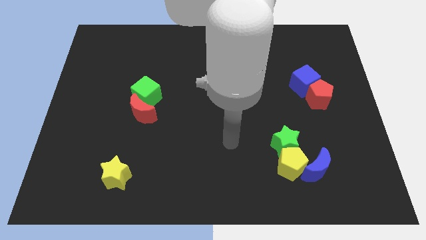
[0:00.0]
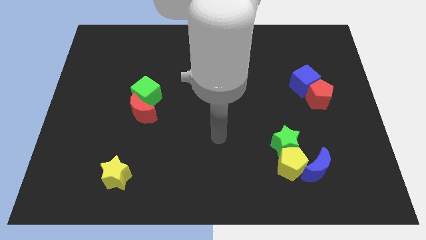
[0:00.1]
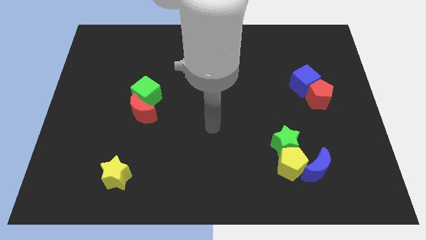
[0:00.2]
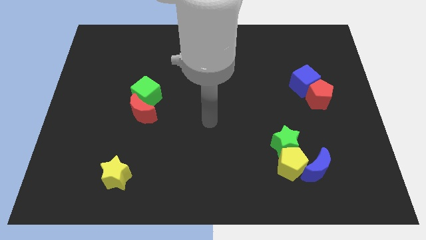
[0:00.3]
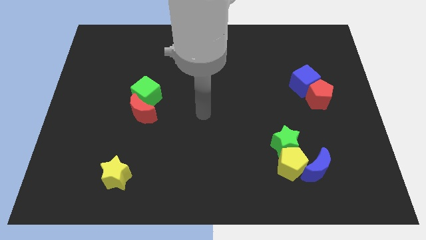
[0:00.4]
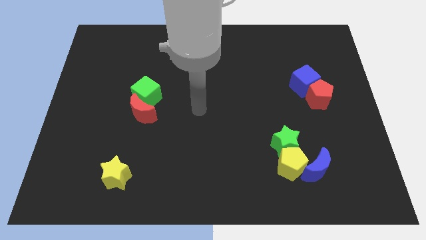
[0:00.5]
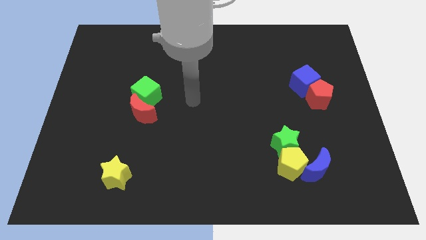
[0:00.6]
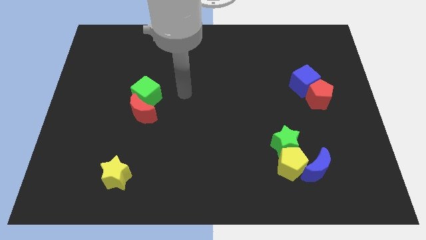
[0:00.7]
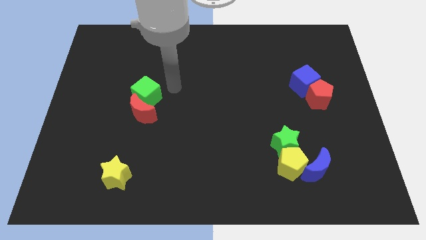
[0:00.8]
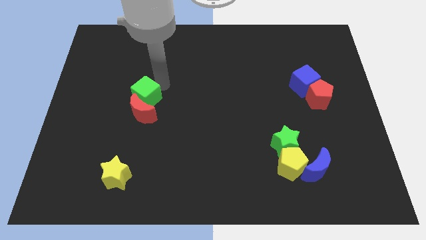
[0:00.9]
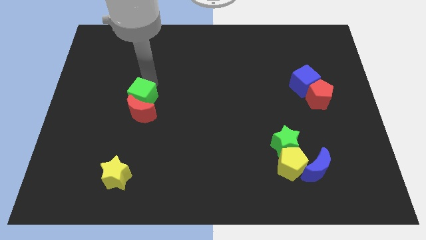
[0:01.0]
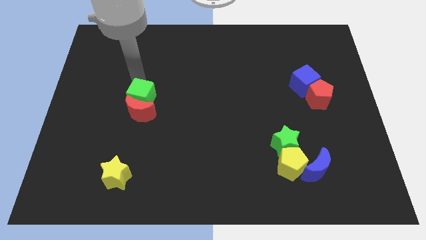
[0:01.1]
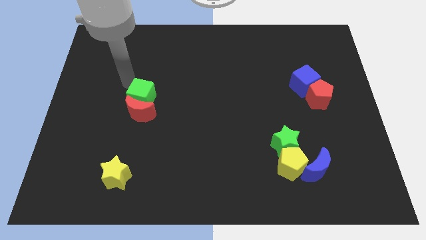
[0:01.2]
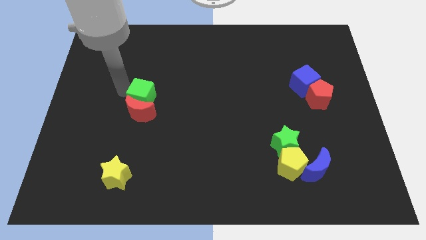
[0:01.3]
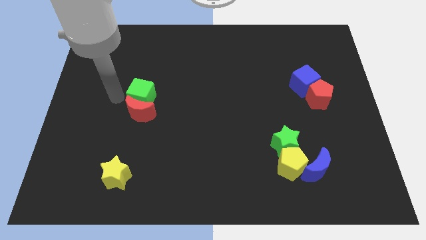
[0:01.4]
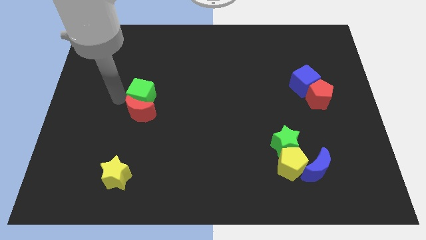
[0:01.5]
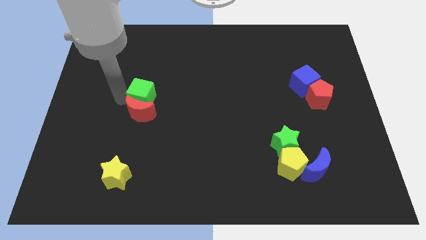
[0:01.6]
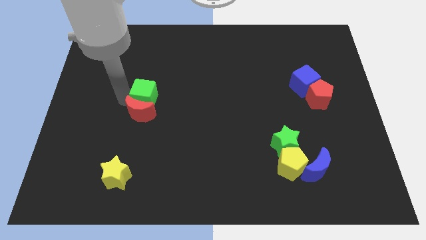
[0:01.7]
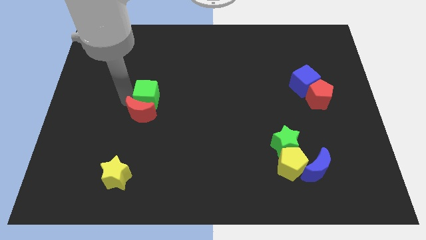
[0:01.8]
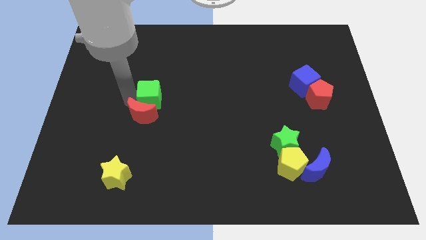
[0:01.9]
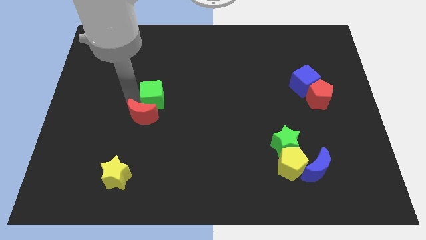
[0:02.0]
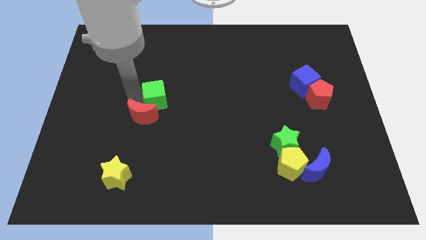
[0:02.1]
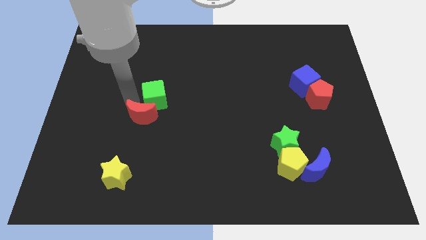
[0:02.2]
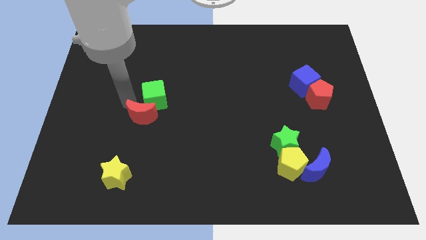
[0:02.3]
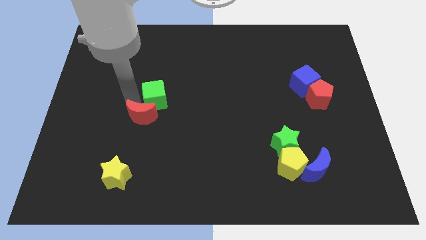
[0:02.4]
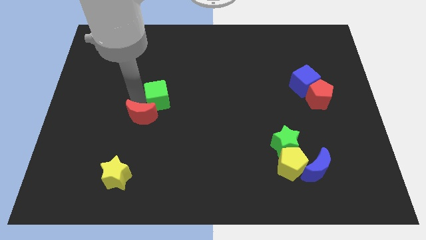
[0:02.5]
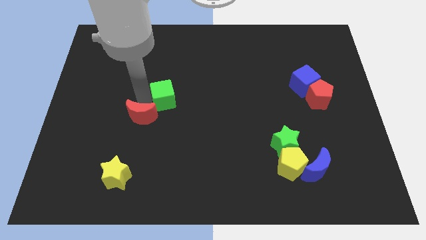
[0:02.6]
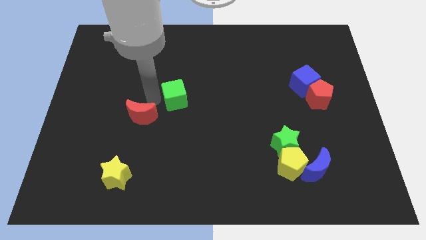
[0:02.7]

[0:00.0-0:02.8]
move the green cube to the right slightly

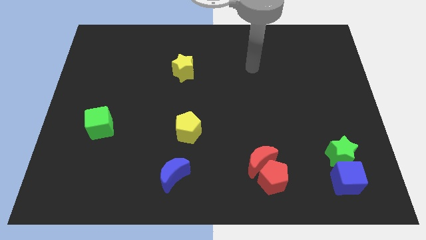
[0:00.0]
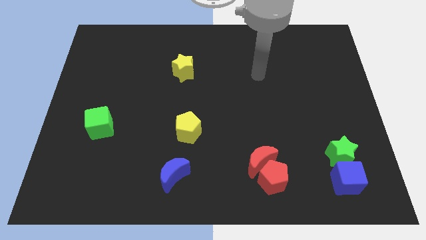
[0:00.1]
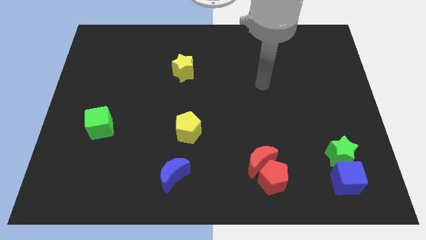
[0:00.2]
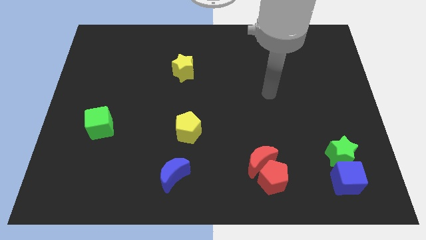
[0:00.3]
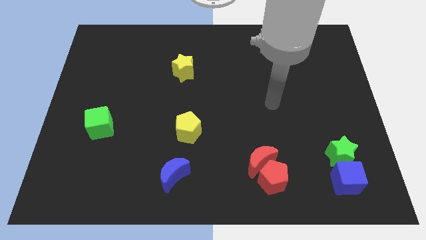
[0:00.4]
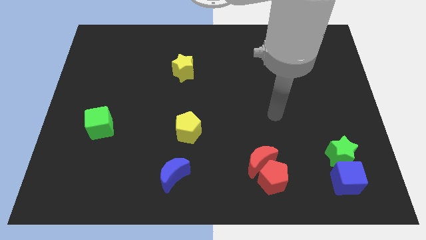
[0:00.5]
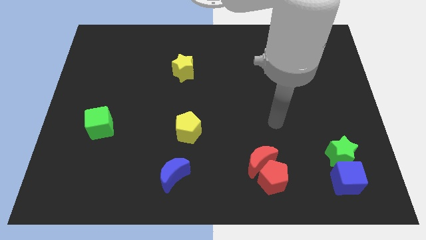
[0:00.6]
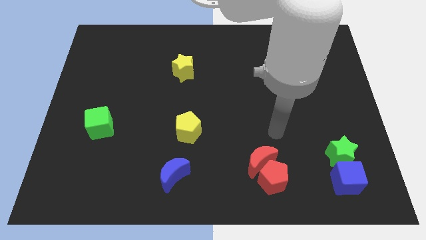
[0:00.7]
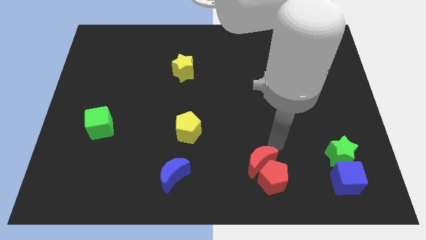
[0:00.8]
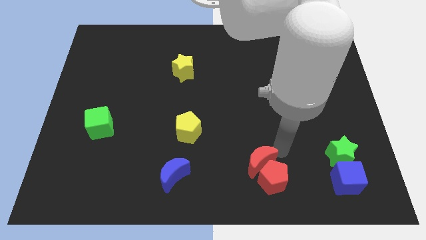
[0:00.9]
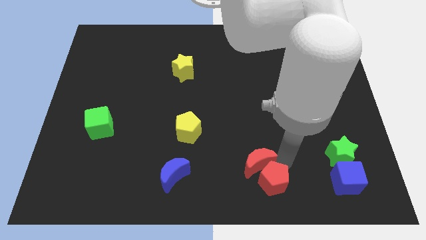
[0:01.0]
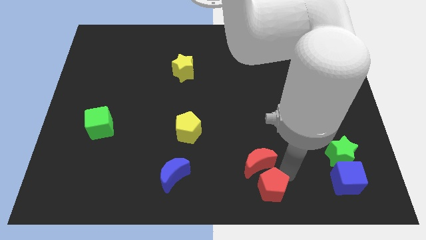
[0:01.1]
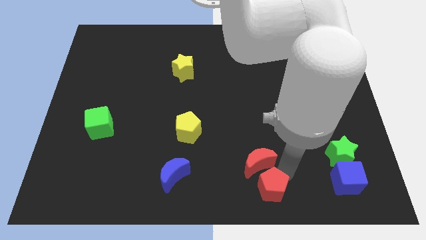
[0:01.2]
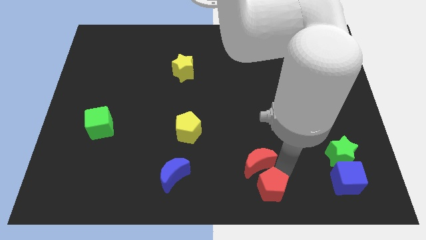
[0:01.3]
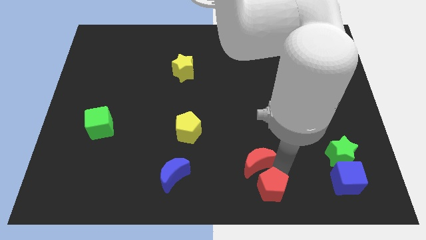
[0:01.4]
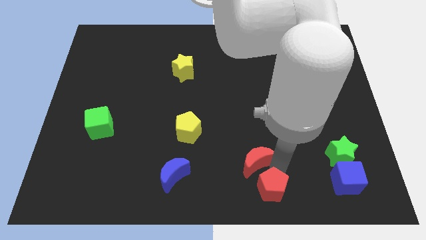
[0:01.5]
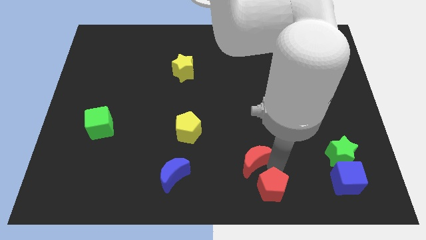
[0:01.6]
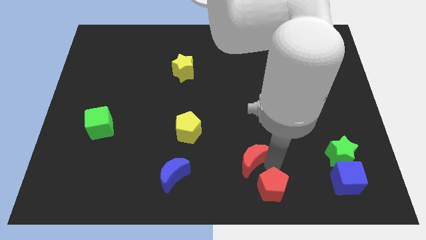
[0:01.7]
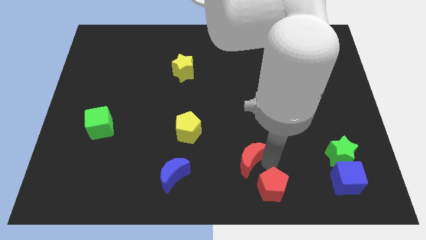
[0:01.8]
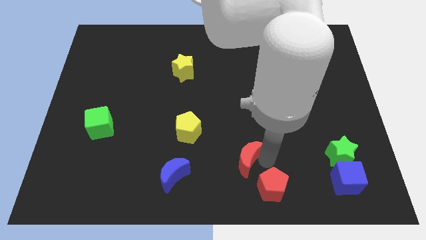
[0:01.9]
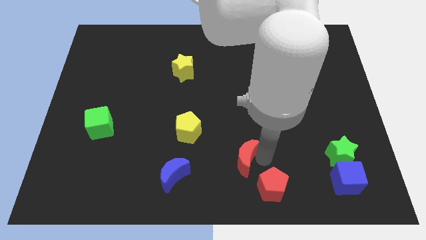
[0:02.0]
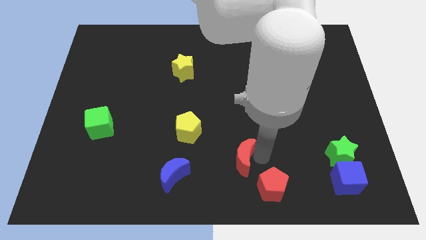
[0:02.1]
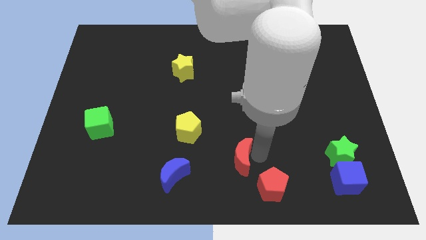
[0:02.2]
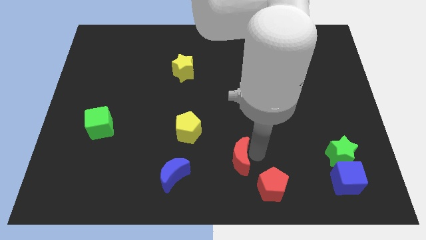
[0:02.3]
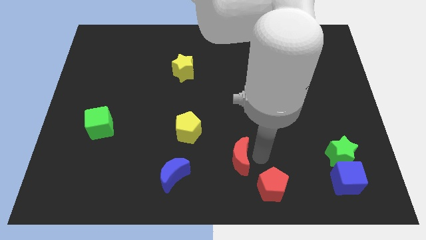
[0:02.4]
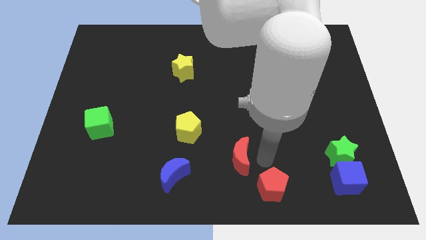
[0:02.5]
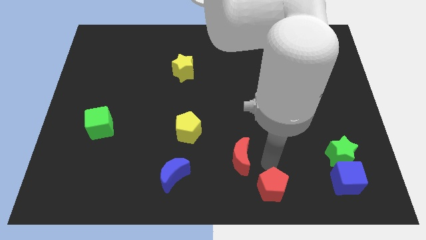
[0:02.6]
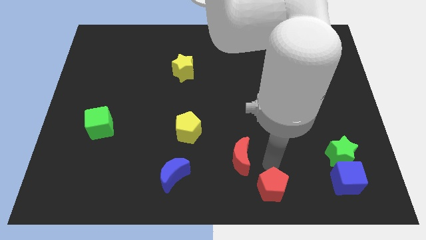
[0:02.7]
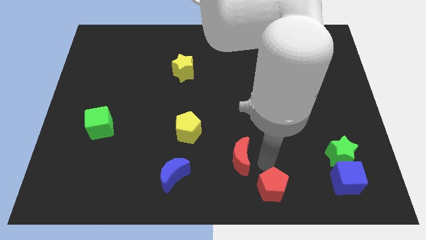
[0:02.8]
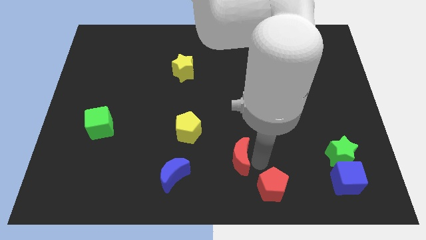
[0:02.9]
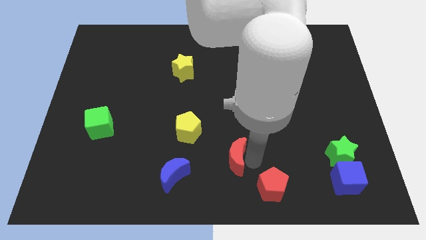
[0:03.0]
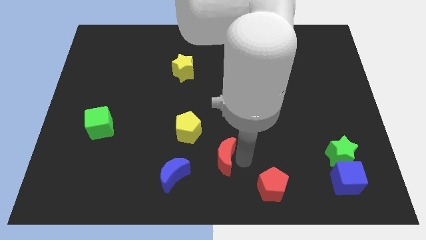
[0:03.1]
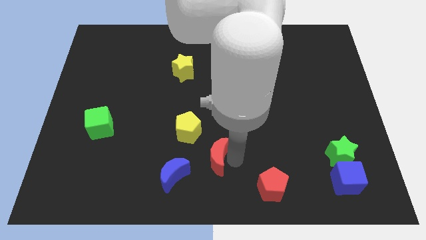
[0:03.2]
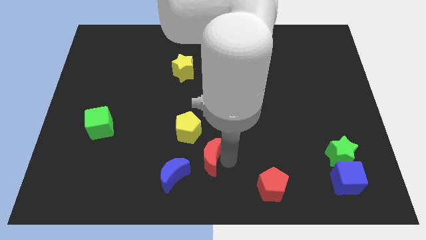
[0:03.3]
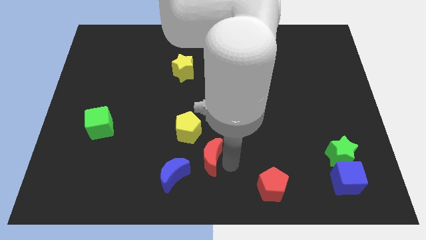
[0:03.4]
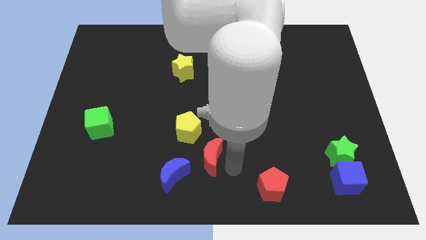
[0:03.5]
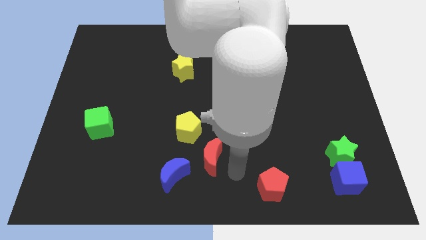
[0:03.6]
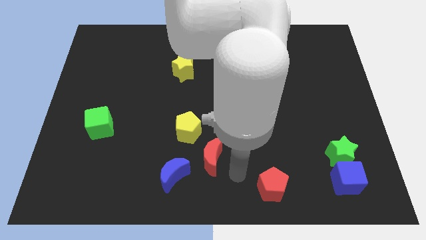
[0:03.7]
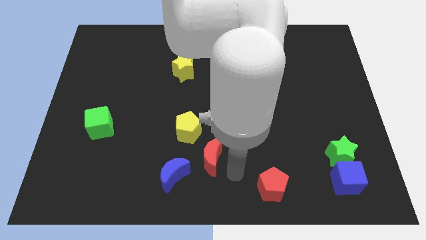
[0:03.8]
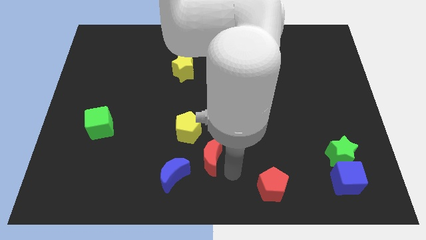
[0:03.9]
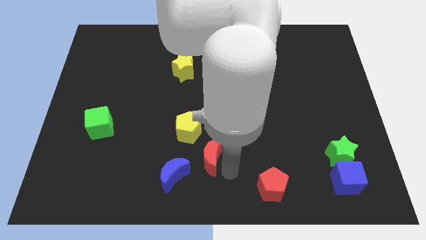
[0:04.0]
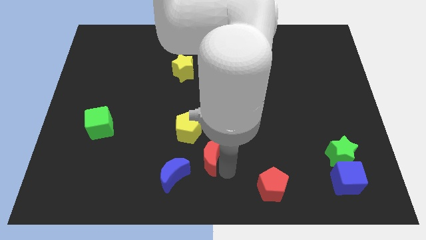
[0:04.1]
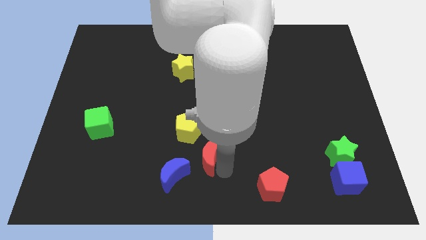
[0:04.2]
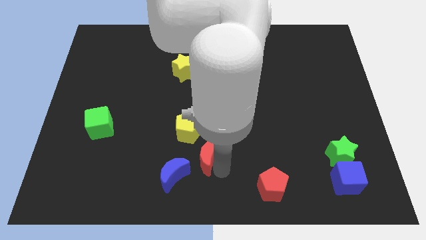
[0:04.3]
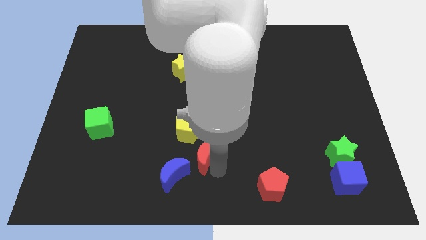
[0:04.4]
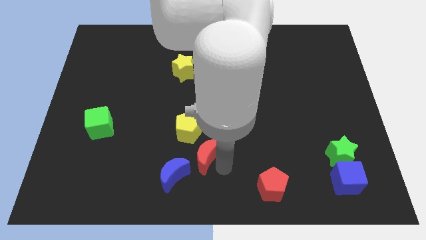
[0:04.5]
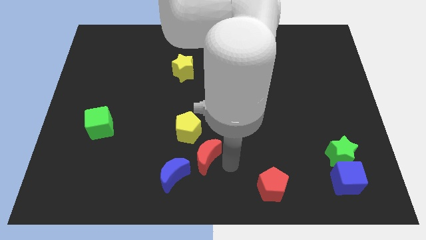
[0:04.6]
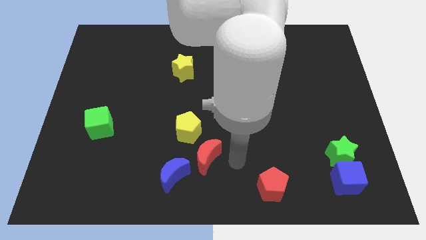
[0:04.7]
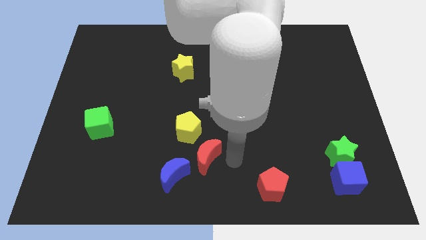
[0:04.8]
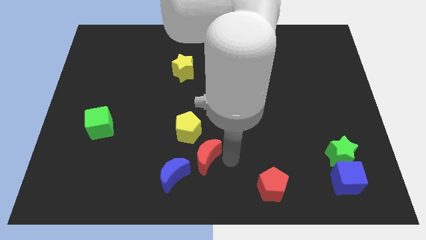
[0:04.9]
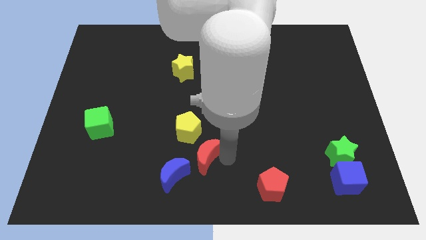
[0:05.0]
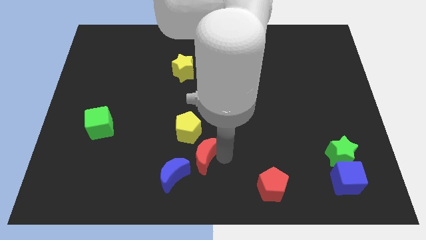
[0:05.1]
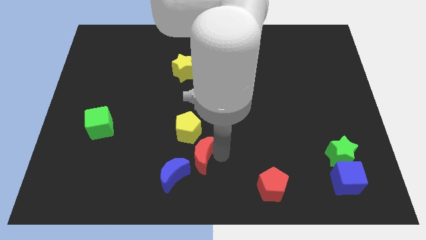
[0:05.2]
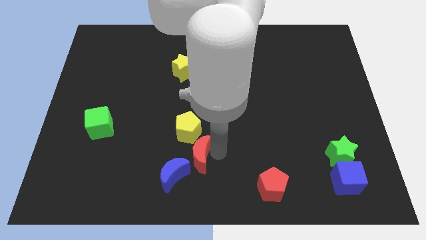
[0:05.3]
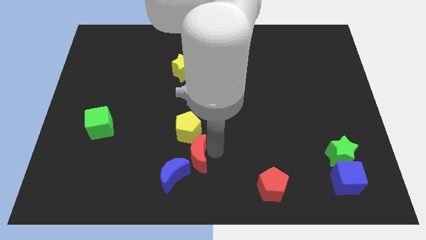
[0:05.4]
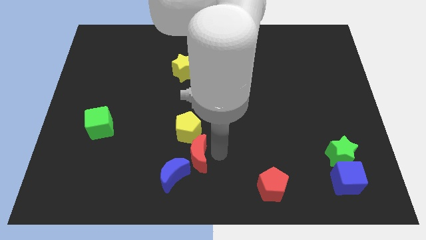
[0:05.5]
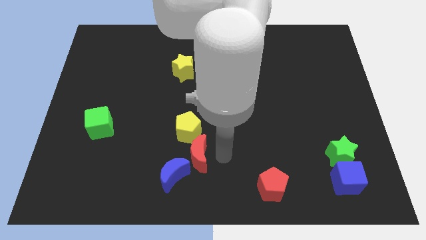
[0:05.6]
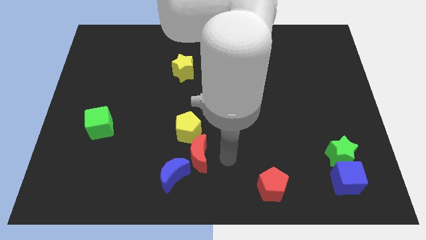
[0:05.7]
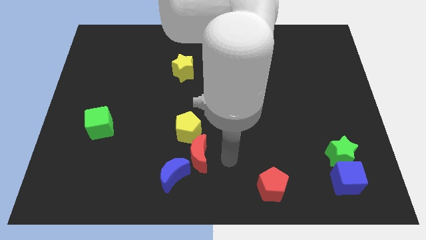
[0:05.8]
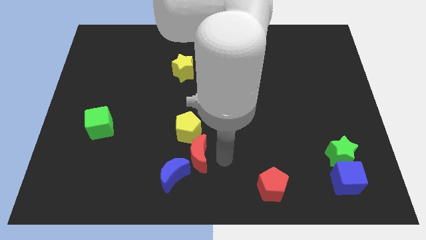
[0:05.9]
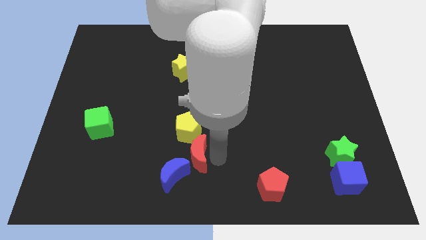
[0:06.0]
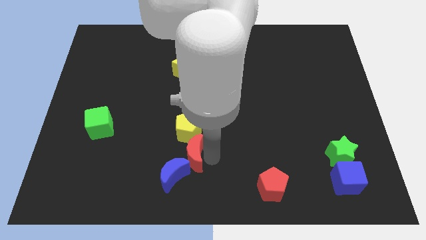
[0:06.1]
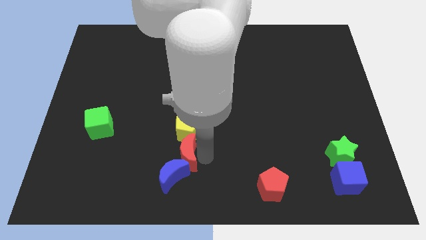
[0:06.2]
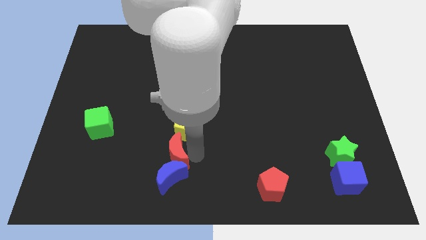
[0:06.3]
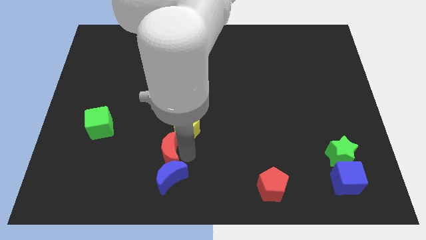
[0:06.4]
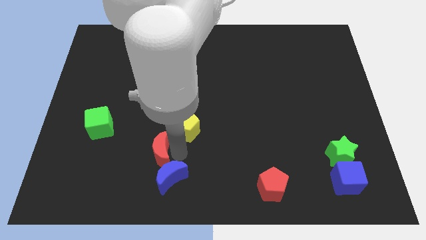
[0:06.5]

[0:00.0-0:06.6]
push the red moon to the left
